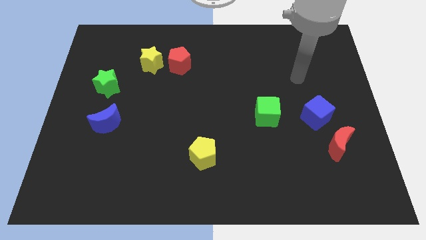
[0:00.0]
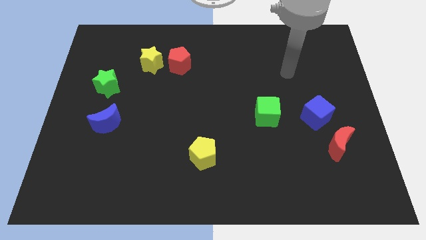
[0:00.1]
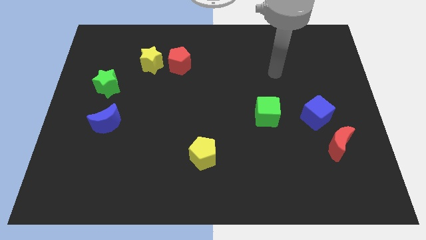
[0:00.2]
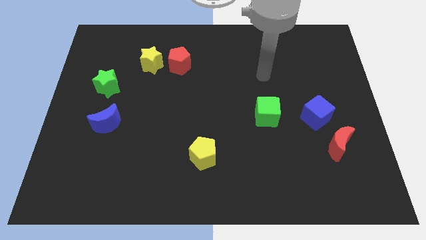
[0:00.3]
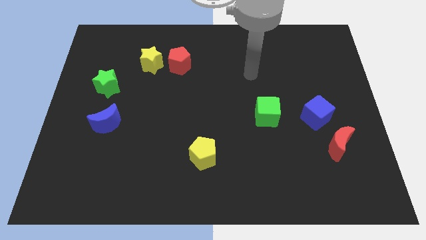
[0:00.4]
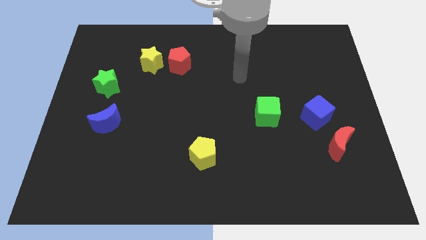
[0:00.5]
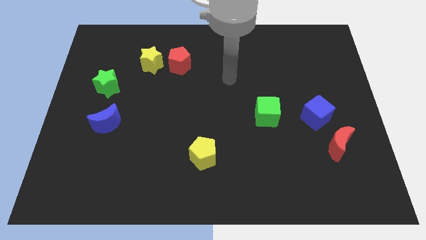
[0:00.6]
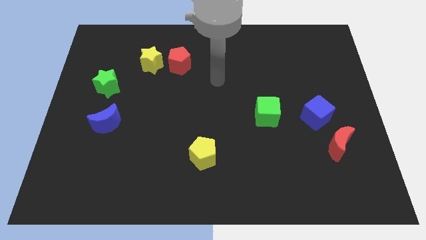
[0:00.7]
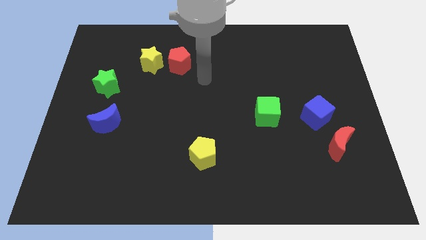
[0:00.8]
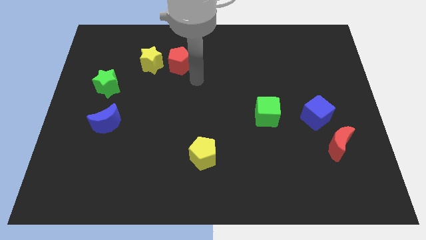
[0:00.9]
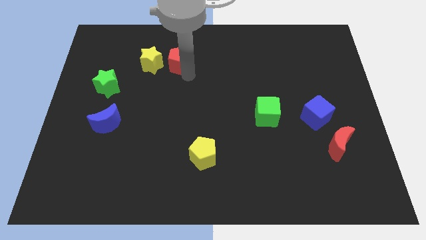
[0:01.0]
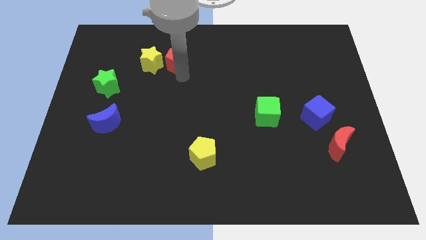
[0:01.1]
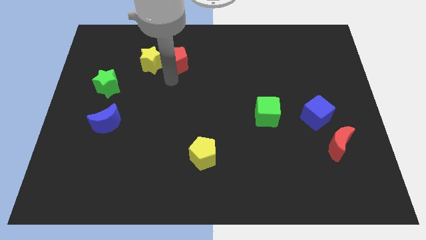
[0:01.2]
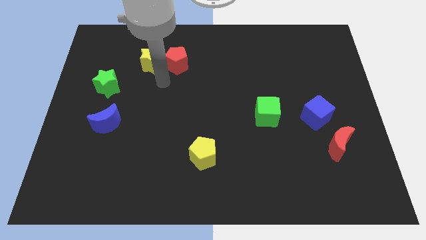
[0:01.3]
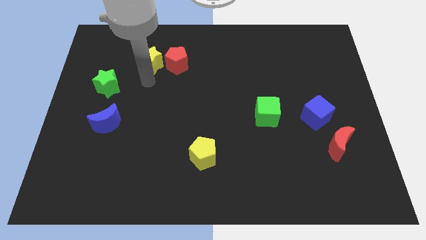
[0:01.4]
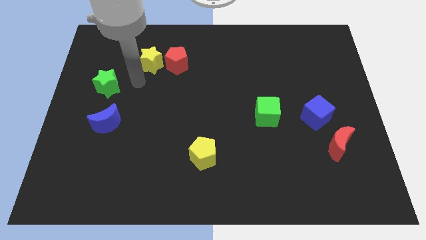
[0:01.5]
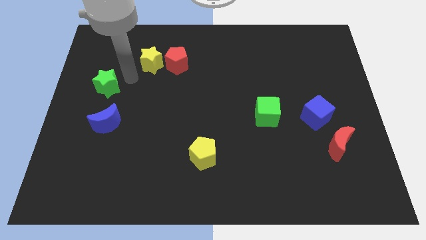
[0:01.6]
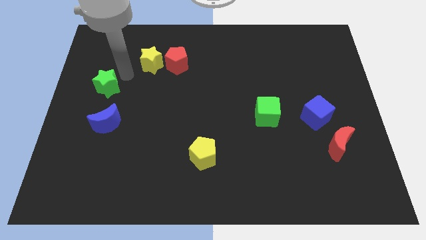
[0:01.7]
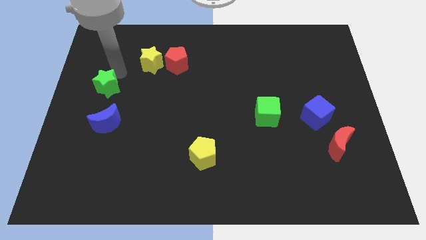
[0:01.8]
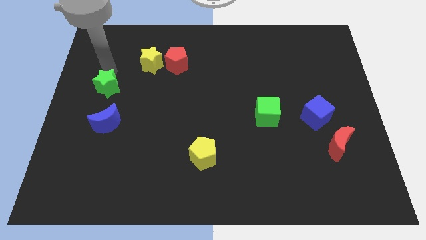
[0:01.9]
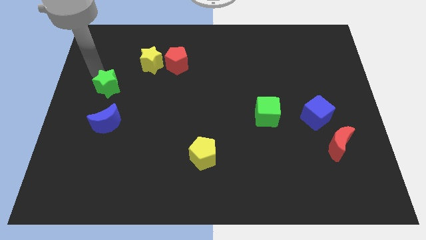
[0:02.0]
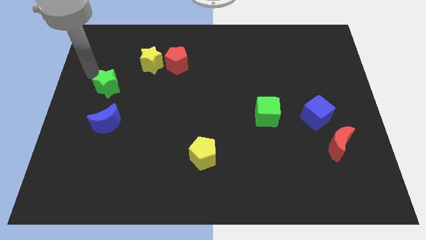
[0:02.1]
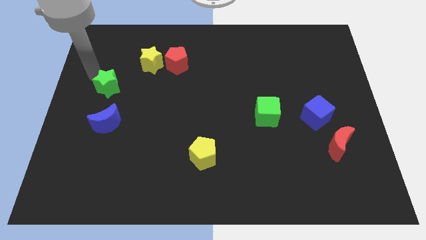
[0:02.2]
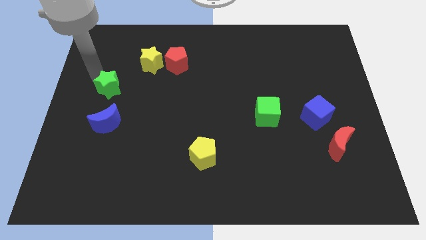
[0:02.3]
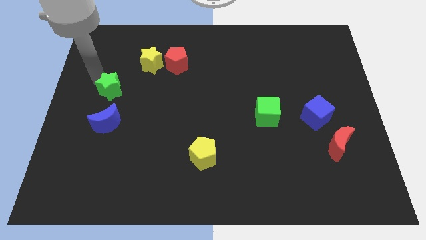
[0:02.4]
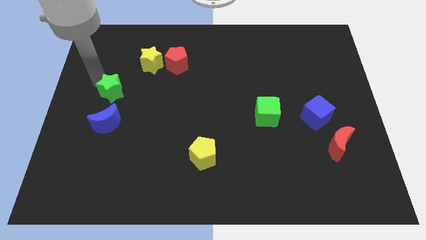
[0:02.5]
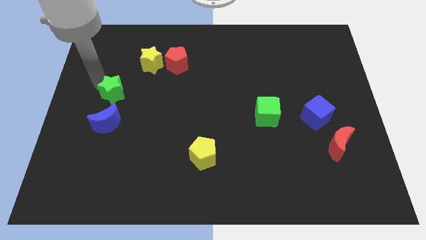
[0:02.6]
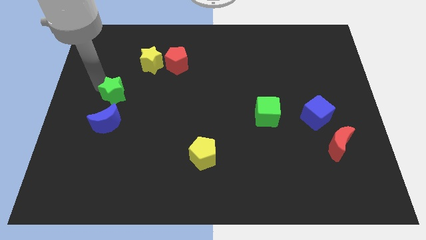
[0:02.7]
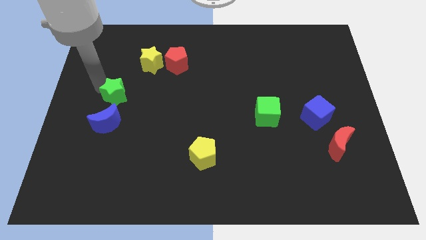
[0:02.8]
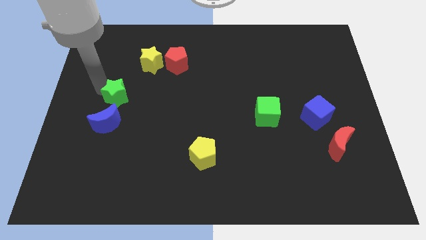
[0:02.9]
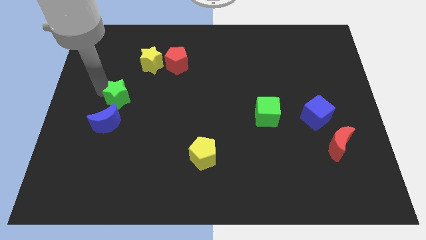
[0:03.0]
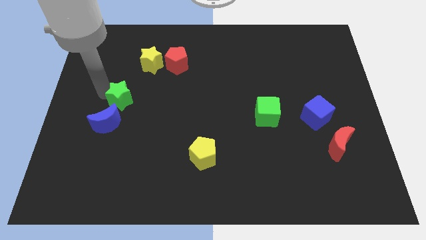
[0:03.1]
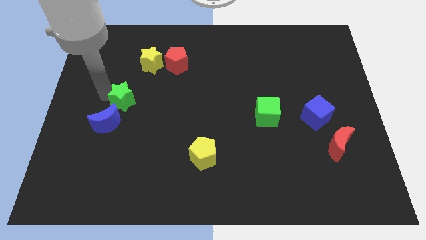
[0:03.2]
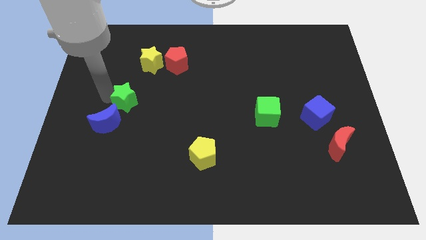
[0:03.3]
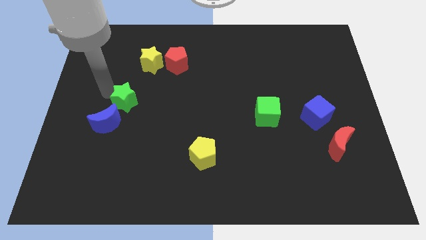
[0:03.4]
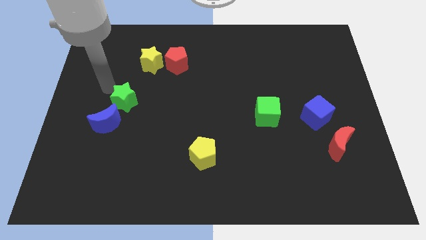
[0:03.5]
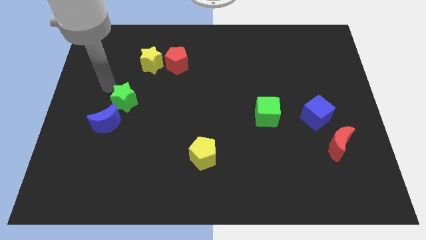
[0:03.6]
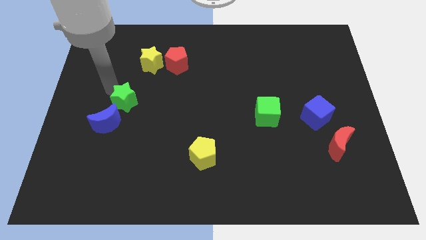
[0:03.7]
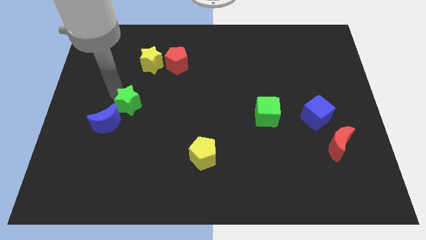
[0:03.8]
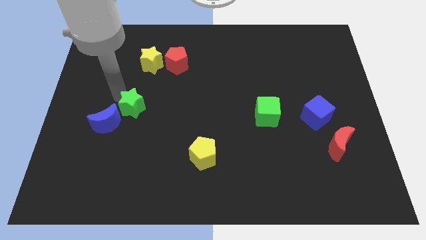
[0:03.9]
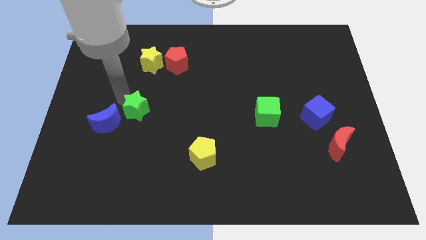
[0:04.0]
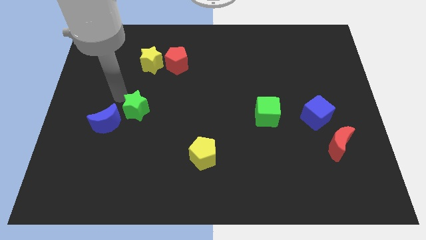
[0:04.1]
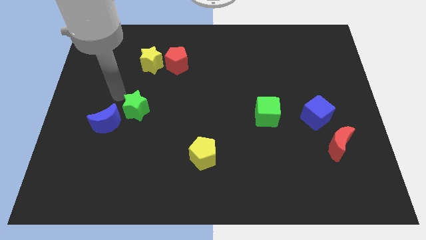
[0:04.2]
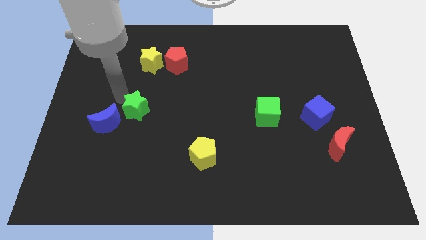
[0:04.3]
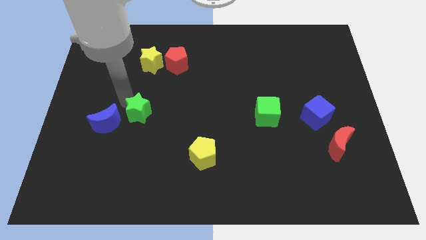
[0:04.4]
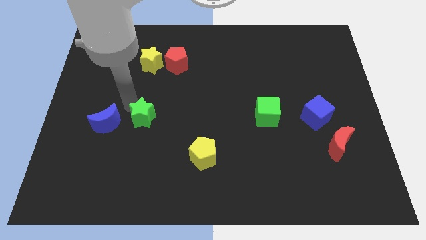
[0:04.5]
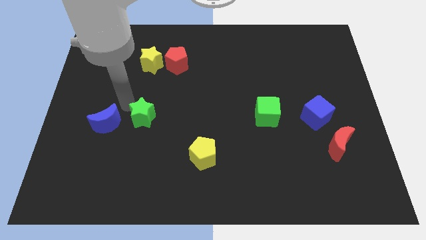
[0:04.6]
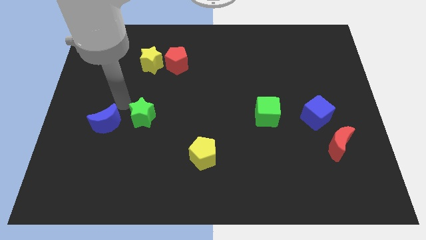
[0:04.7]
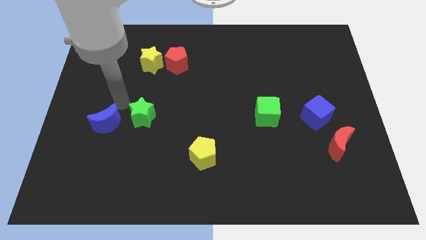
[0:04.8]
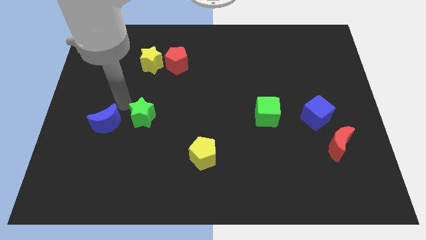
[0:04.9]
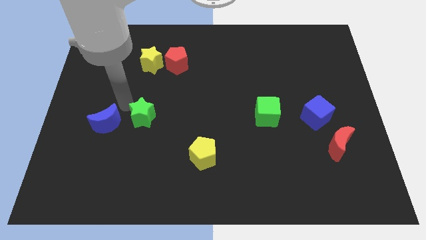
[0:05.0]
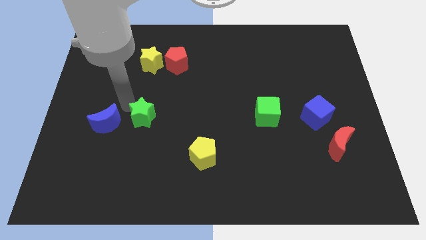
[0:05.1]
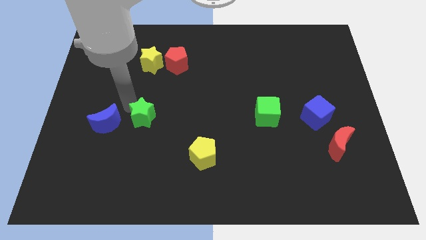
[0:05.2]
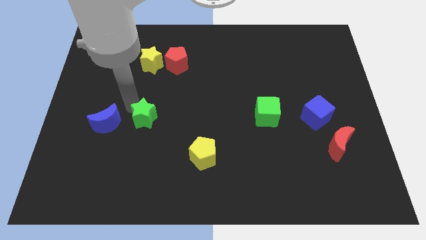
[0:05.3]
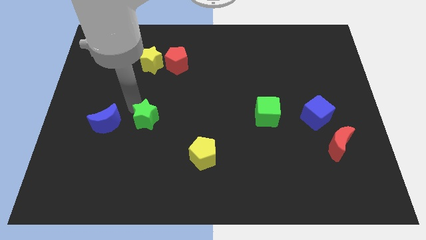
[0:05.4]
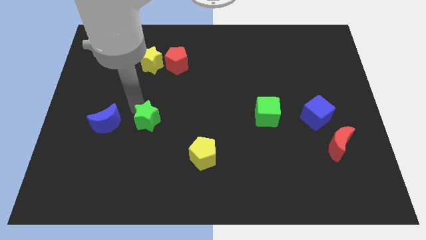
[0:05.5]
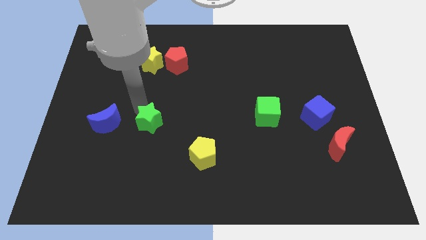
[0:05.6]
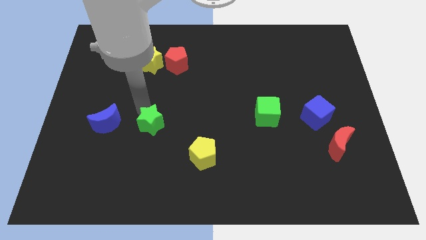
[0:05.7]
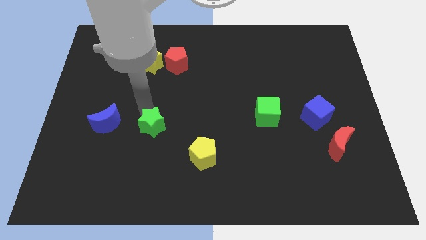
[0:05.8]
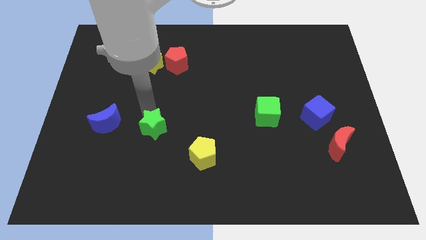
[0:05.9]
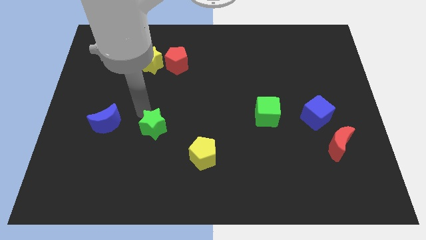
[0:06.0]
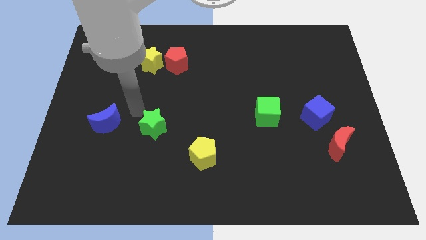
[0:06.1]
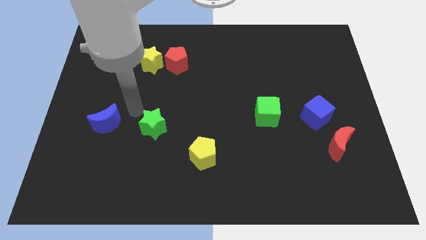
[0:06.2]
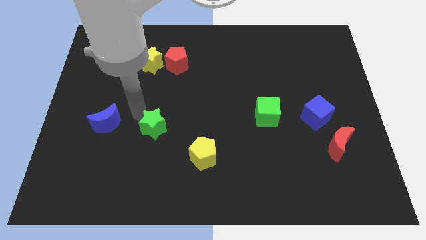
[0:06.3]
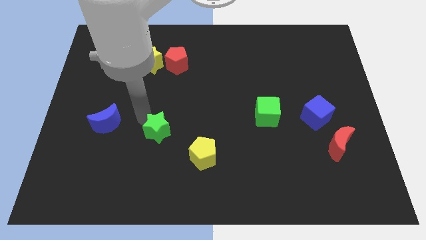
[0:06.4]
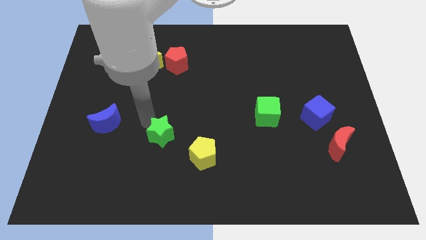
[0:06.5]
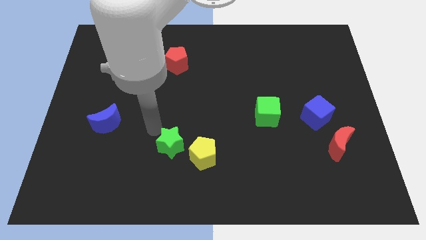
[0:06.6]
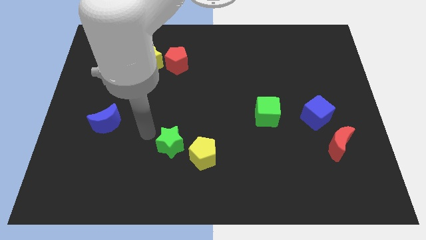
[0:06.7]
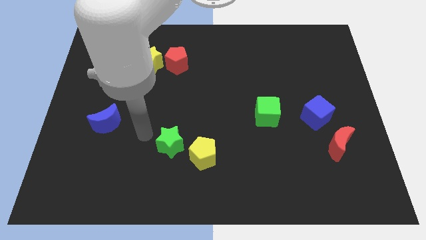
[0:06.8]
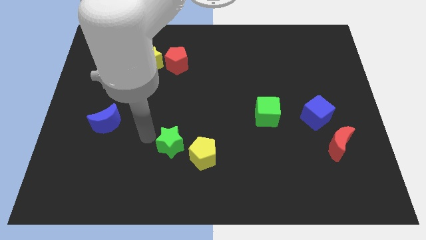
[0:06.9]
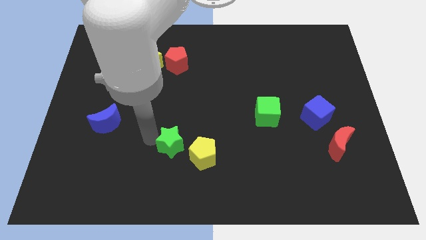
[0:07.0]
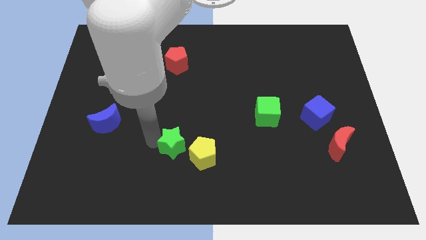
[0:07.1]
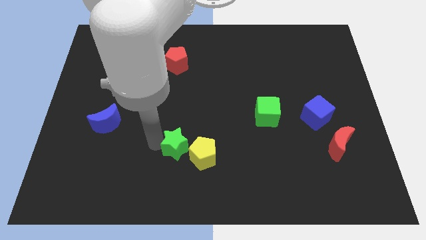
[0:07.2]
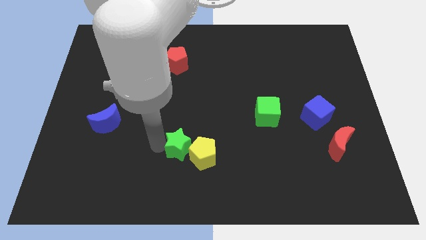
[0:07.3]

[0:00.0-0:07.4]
put the green star close to the yellow pentagon
